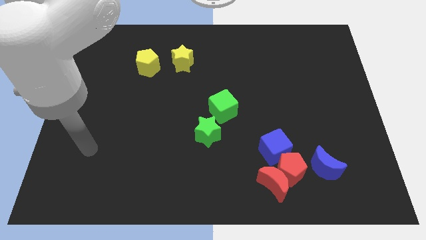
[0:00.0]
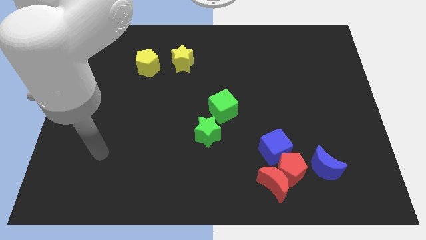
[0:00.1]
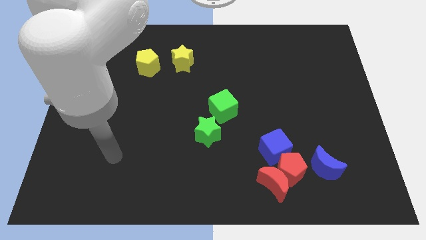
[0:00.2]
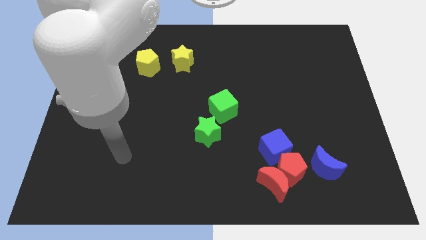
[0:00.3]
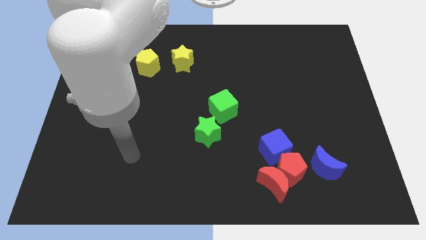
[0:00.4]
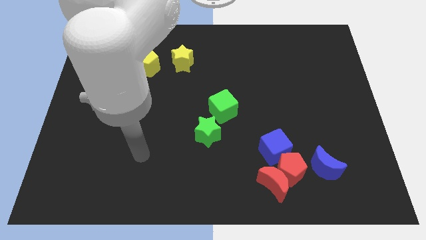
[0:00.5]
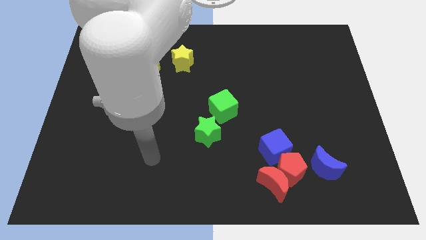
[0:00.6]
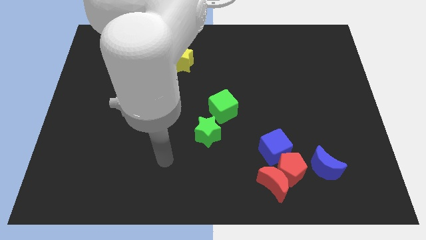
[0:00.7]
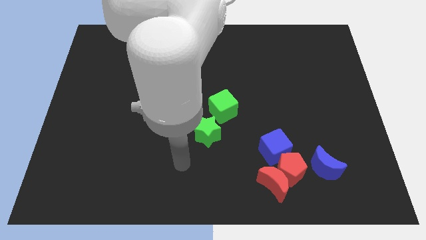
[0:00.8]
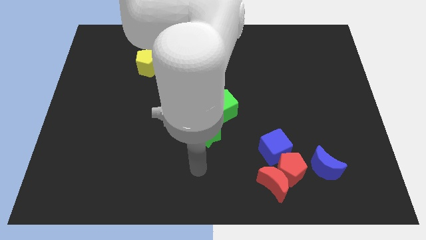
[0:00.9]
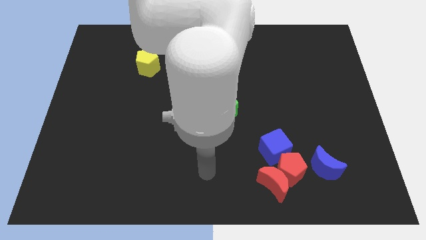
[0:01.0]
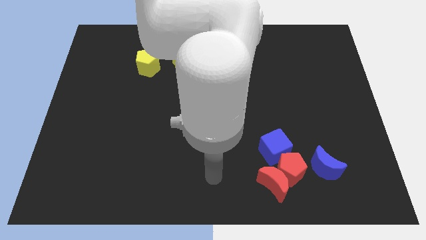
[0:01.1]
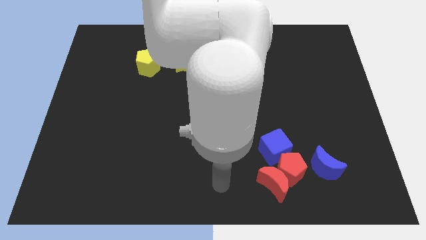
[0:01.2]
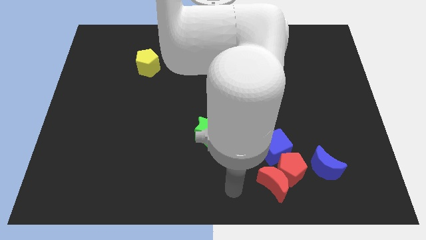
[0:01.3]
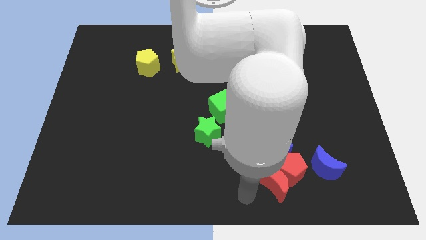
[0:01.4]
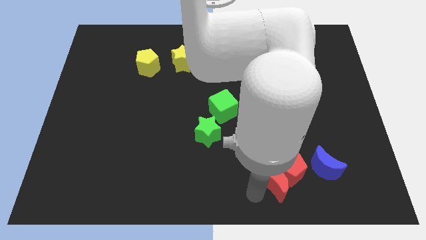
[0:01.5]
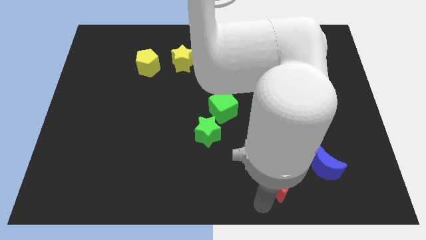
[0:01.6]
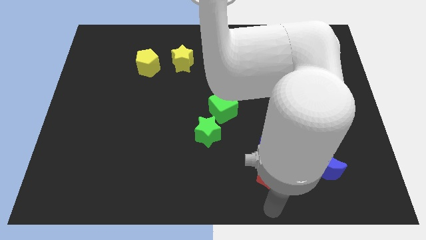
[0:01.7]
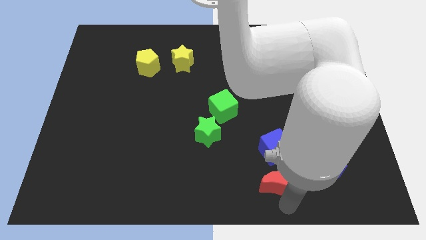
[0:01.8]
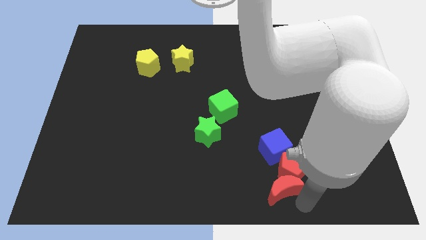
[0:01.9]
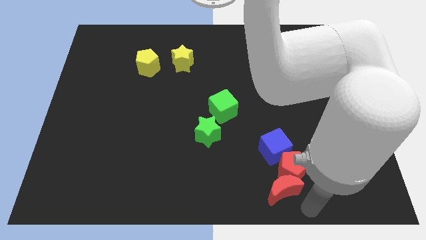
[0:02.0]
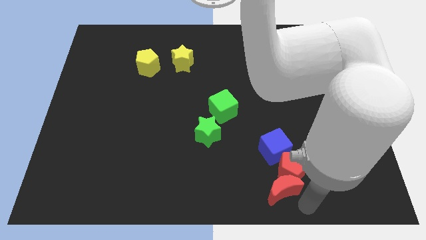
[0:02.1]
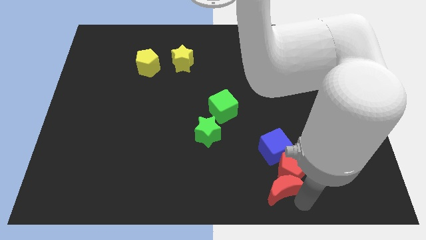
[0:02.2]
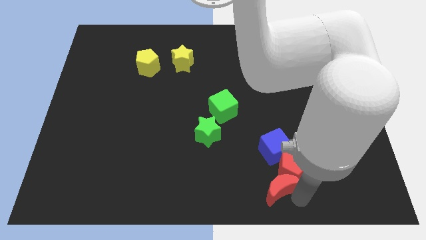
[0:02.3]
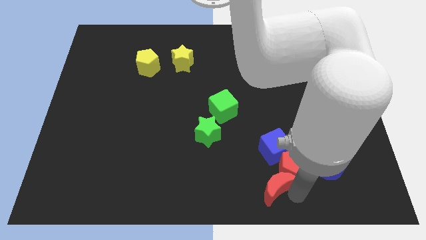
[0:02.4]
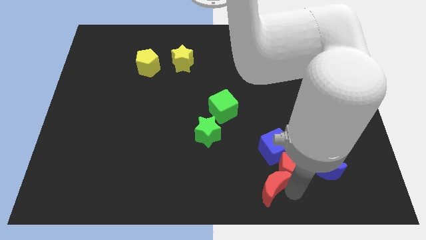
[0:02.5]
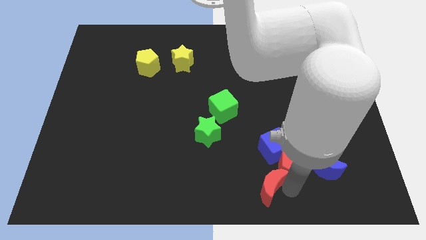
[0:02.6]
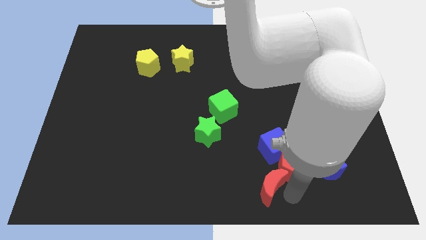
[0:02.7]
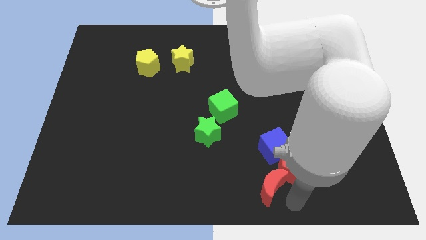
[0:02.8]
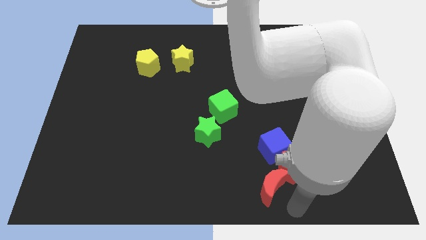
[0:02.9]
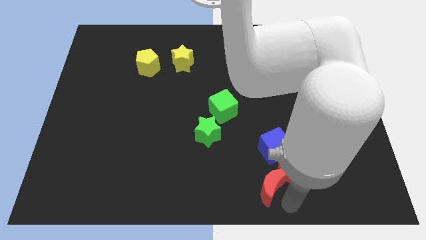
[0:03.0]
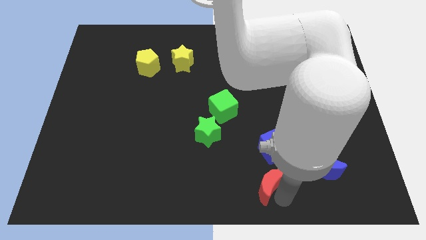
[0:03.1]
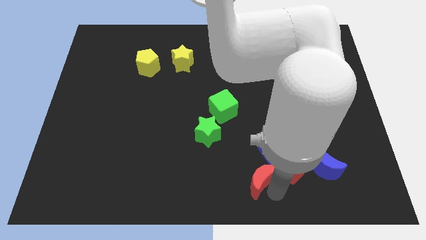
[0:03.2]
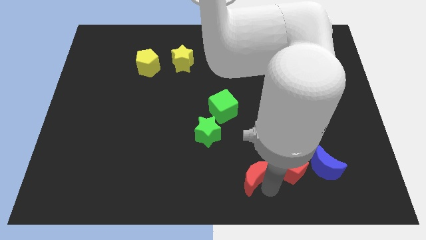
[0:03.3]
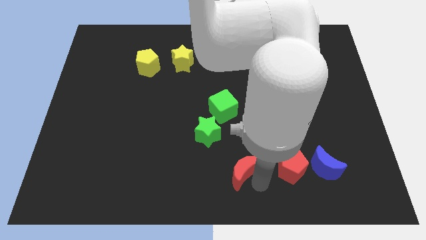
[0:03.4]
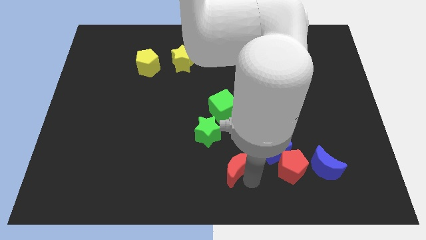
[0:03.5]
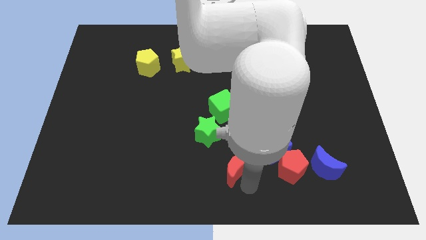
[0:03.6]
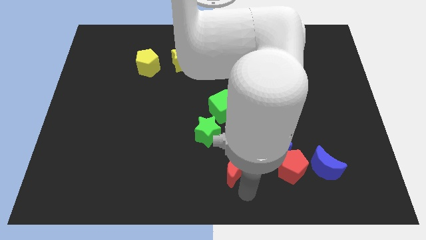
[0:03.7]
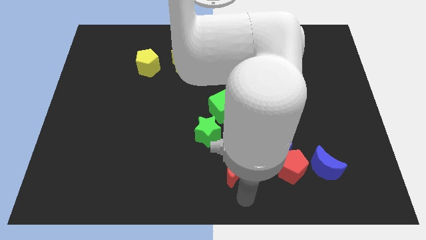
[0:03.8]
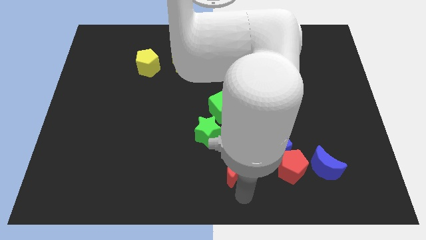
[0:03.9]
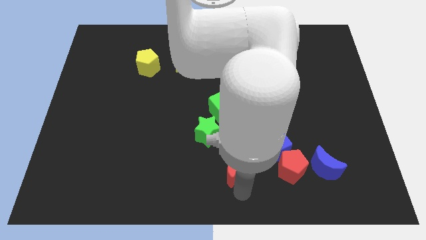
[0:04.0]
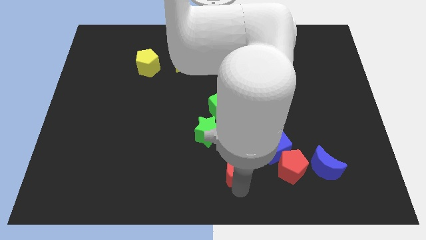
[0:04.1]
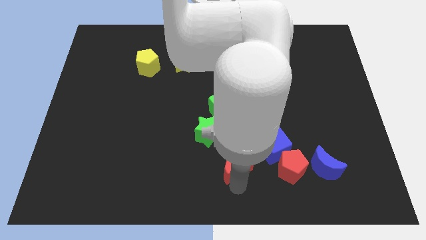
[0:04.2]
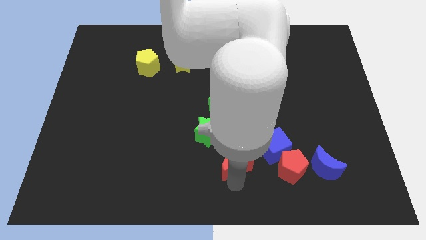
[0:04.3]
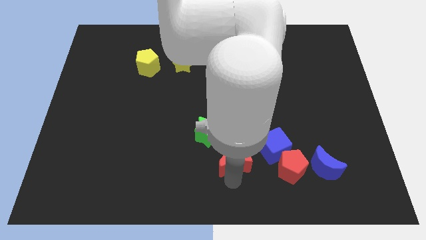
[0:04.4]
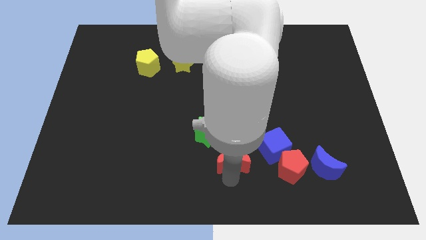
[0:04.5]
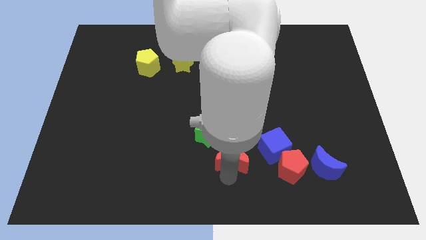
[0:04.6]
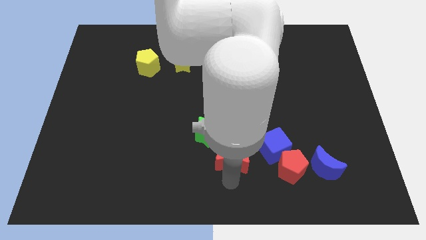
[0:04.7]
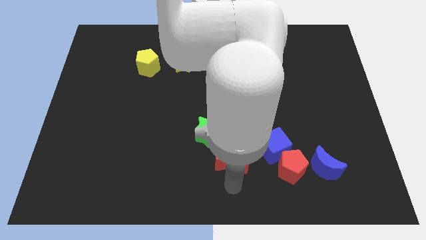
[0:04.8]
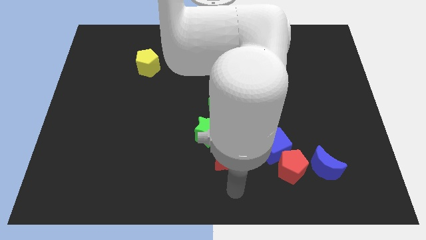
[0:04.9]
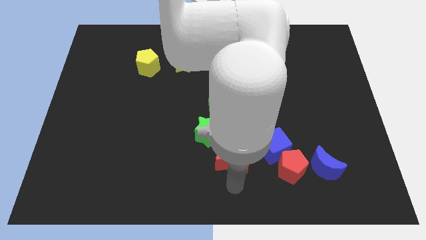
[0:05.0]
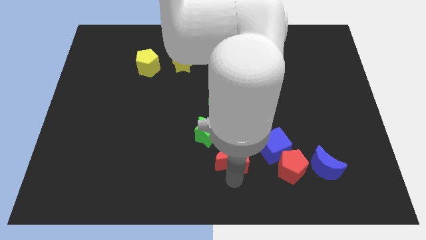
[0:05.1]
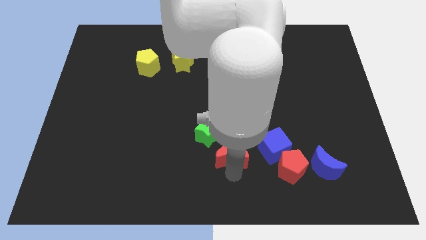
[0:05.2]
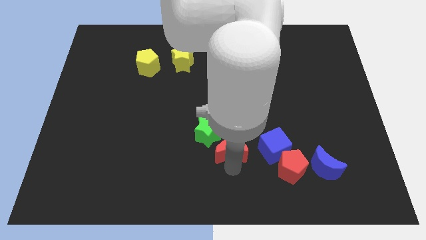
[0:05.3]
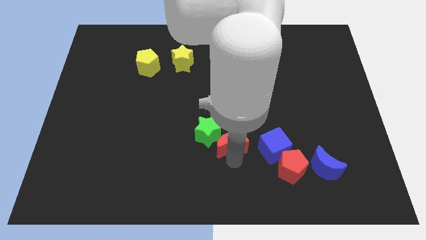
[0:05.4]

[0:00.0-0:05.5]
put the red moon towards the green star

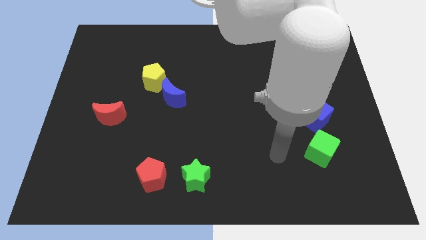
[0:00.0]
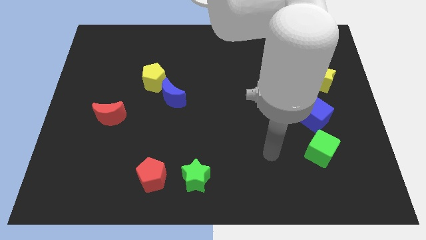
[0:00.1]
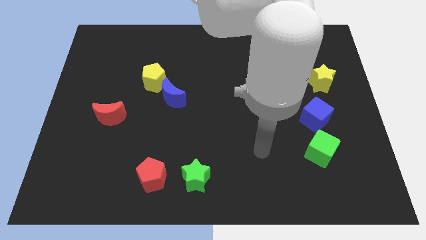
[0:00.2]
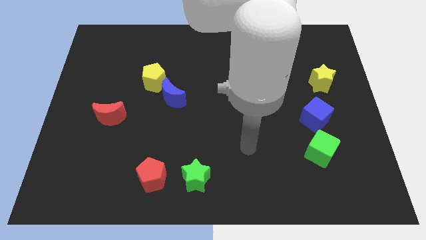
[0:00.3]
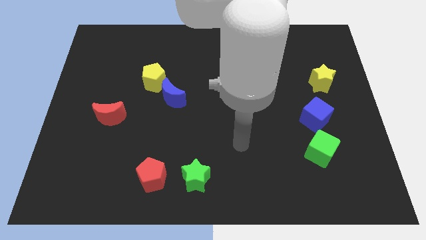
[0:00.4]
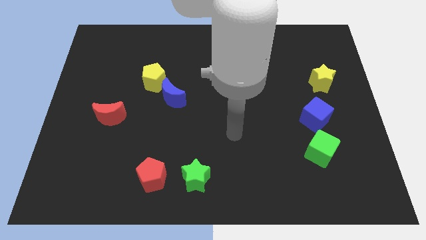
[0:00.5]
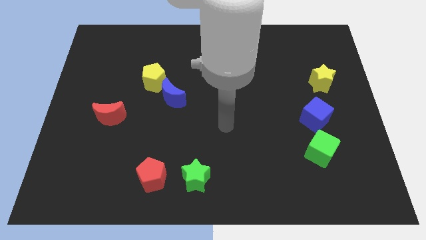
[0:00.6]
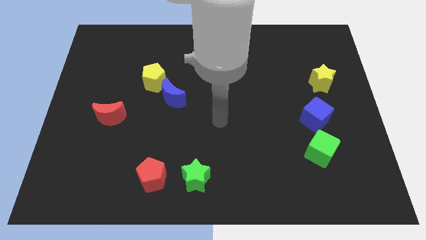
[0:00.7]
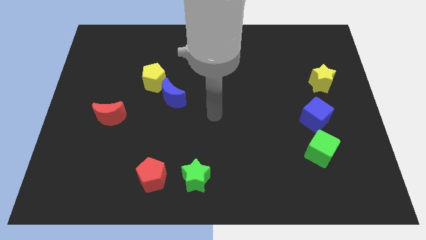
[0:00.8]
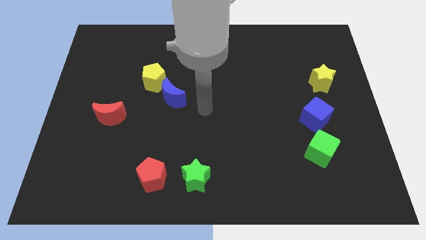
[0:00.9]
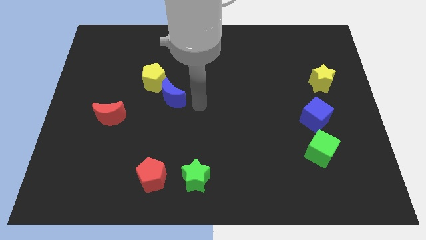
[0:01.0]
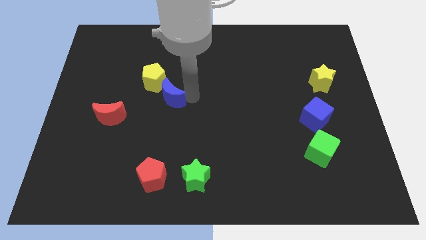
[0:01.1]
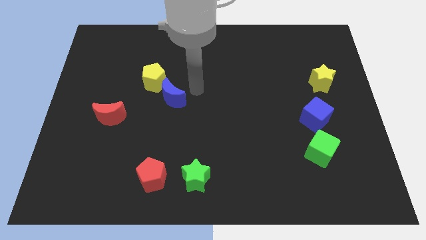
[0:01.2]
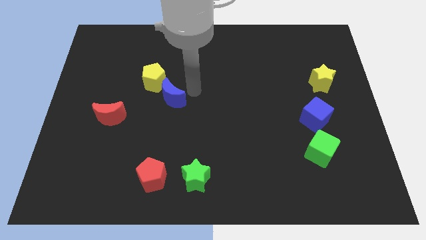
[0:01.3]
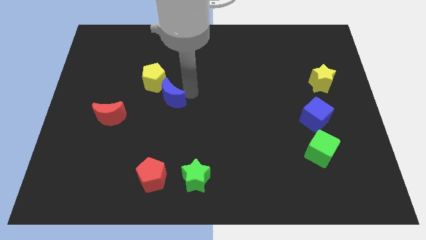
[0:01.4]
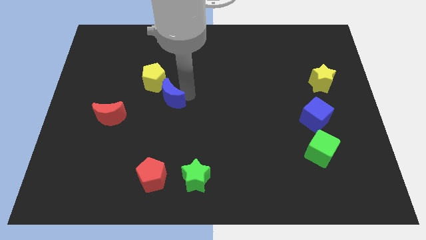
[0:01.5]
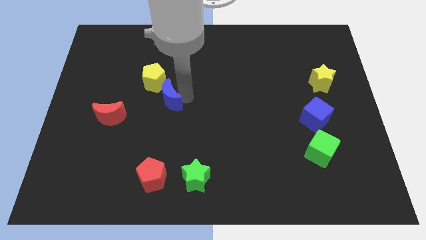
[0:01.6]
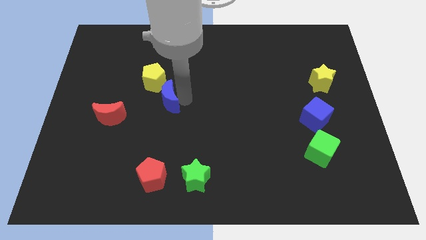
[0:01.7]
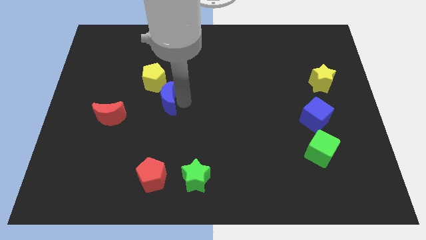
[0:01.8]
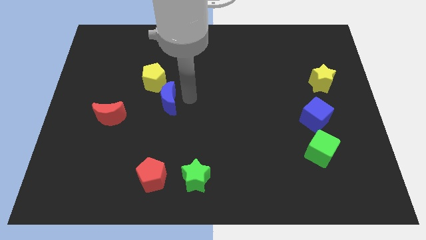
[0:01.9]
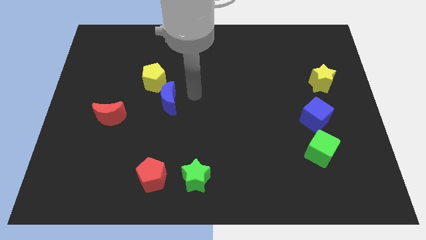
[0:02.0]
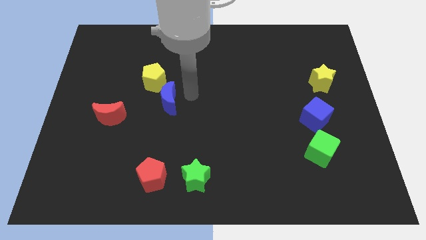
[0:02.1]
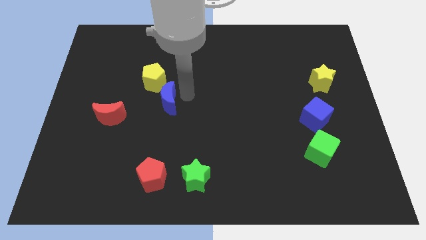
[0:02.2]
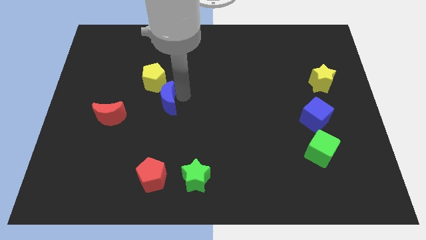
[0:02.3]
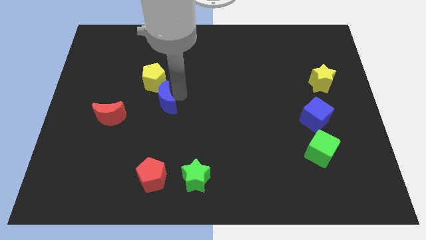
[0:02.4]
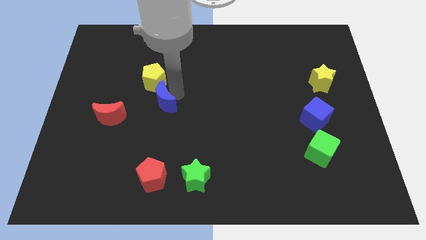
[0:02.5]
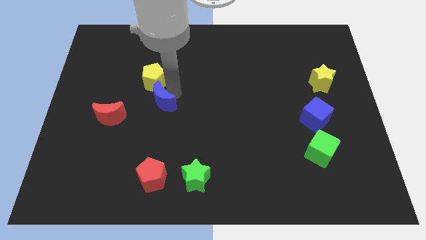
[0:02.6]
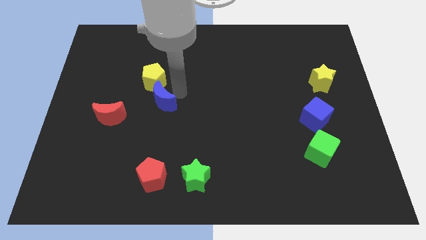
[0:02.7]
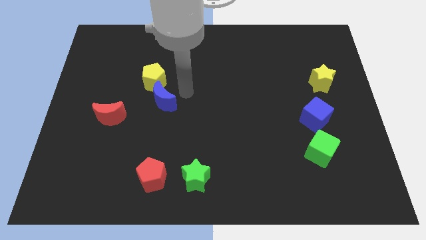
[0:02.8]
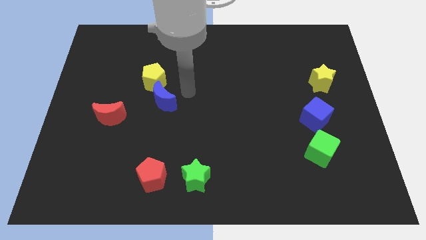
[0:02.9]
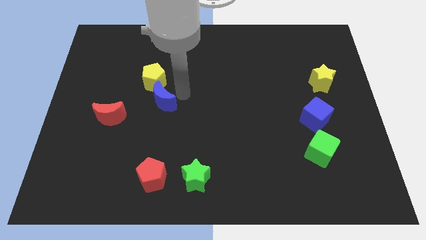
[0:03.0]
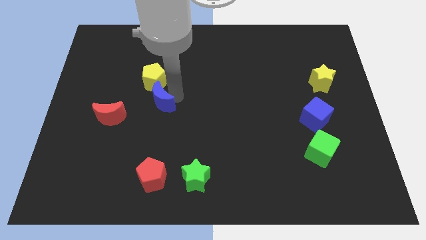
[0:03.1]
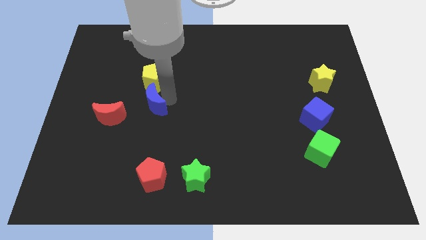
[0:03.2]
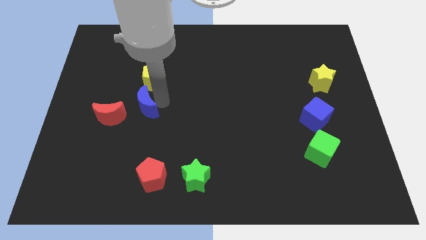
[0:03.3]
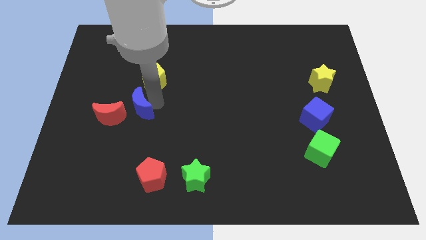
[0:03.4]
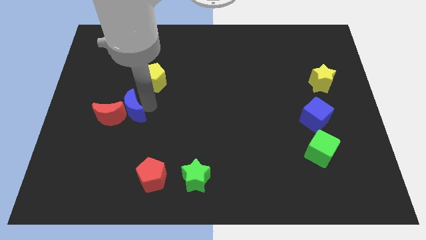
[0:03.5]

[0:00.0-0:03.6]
put the blue moon towards the red moon
